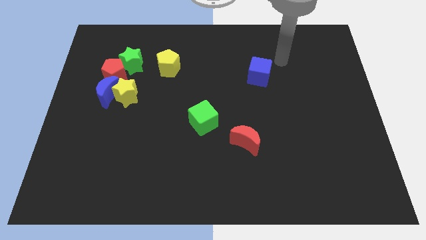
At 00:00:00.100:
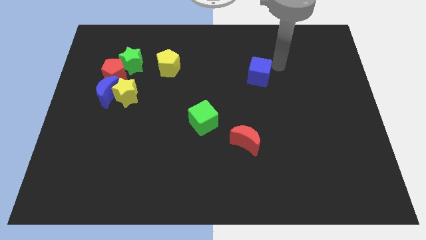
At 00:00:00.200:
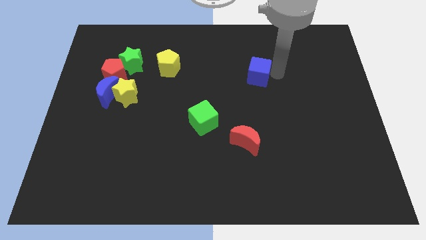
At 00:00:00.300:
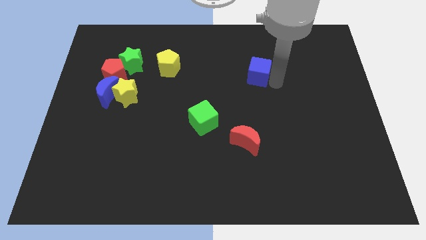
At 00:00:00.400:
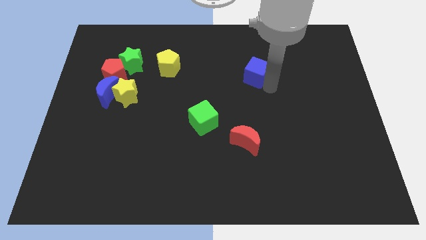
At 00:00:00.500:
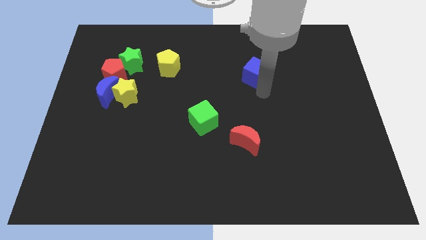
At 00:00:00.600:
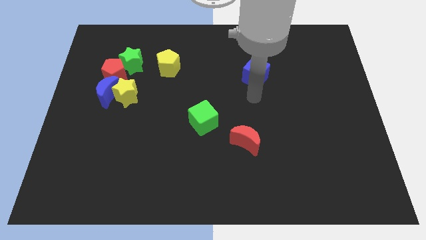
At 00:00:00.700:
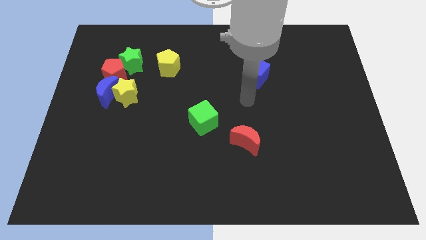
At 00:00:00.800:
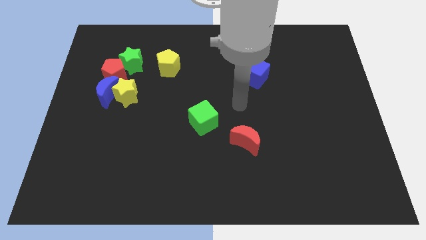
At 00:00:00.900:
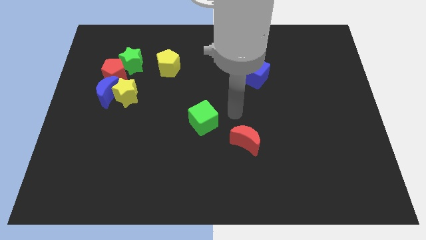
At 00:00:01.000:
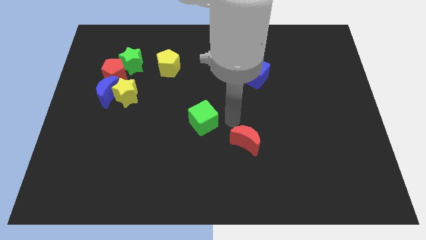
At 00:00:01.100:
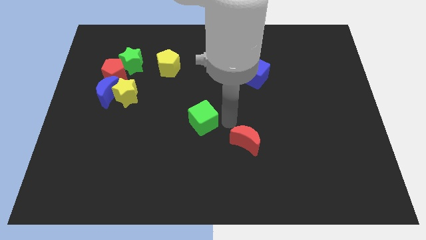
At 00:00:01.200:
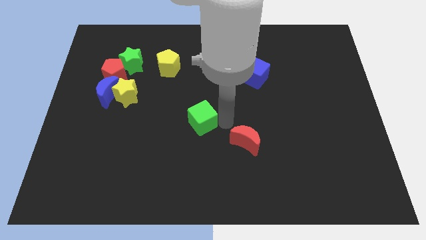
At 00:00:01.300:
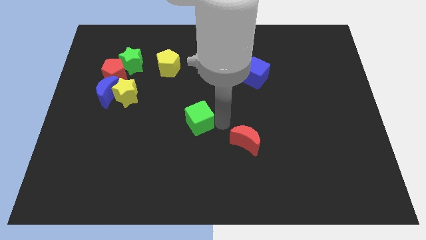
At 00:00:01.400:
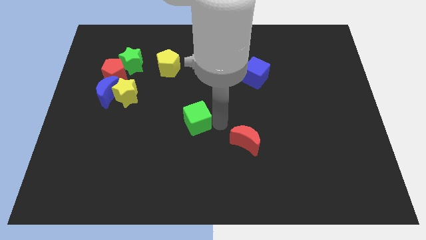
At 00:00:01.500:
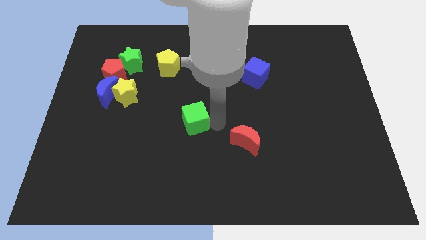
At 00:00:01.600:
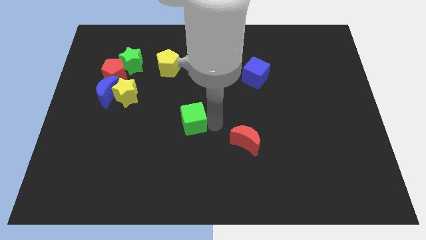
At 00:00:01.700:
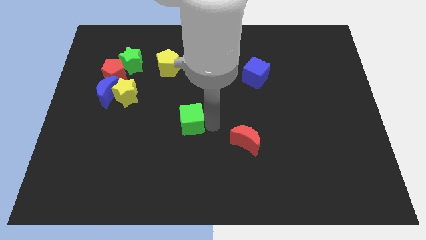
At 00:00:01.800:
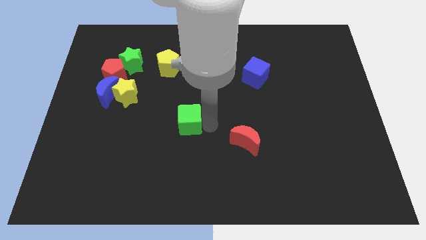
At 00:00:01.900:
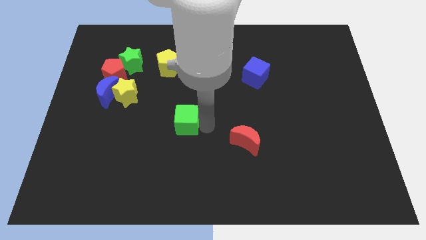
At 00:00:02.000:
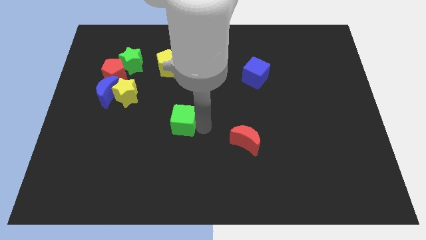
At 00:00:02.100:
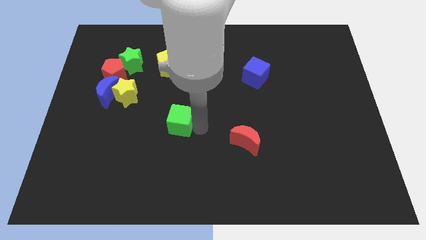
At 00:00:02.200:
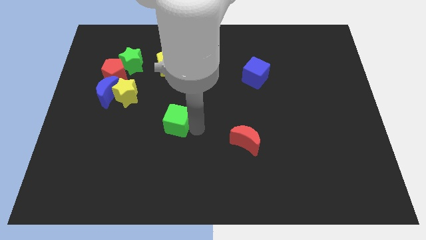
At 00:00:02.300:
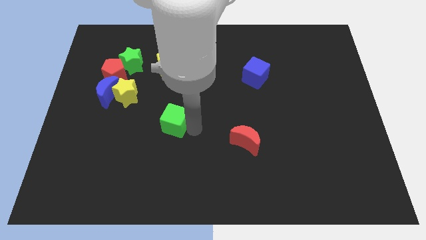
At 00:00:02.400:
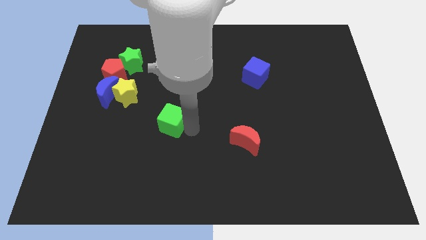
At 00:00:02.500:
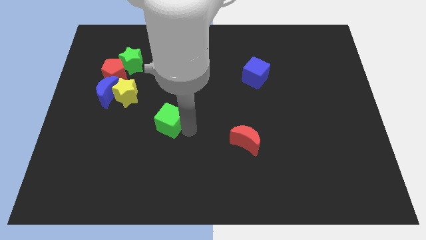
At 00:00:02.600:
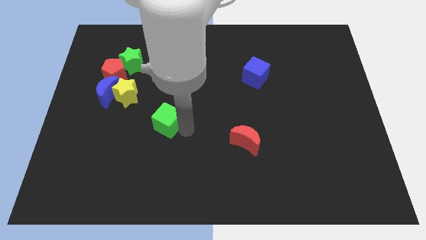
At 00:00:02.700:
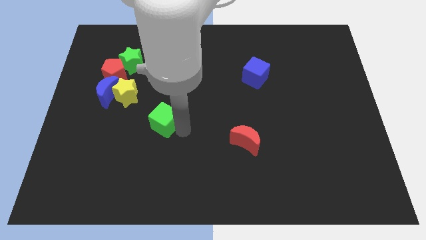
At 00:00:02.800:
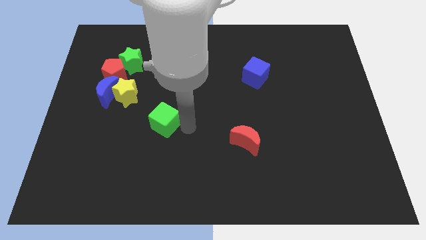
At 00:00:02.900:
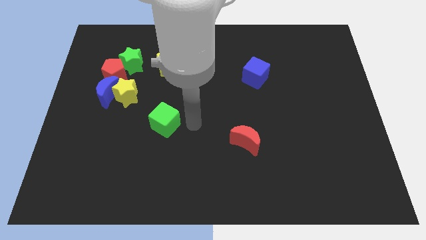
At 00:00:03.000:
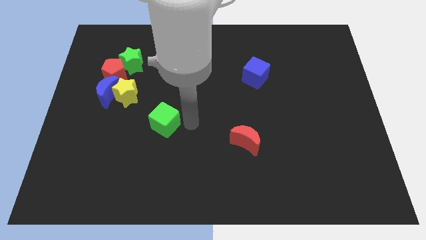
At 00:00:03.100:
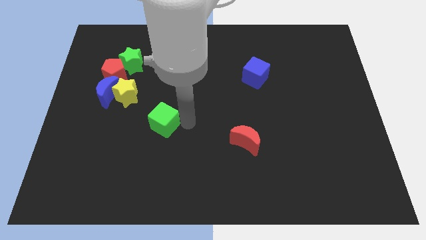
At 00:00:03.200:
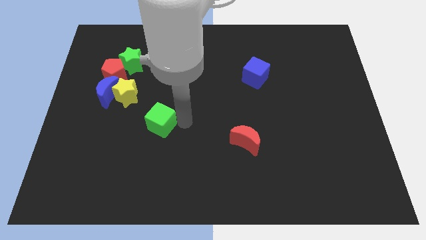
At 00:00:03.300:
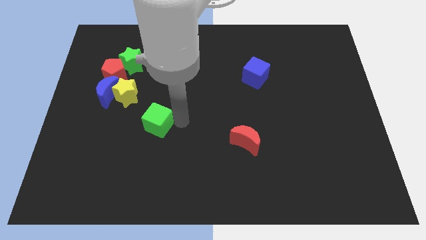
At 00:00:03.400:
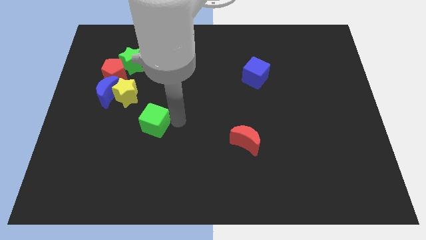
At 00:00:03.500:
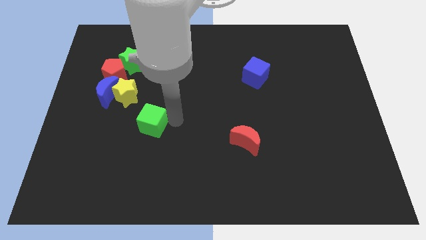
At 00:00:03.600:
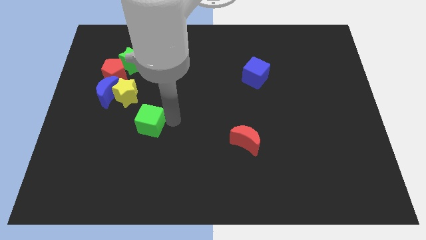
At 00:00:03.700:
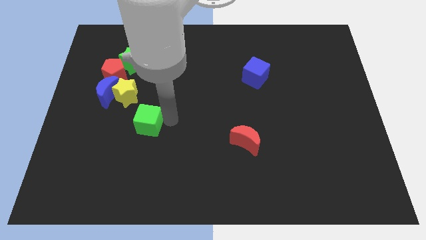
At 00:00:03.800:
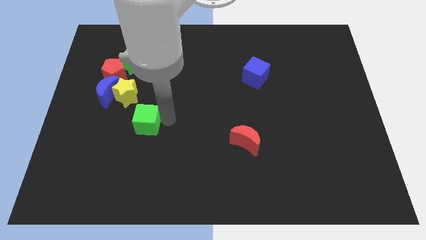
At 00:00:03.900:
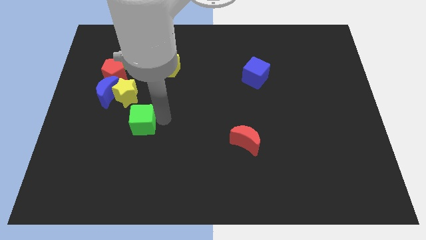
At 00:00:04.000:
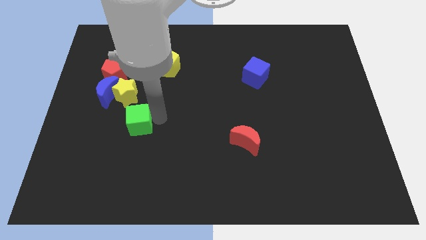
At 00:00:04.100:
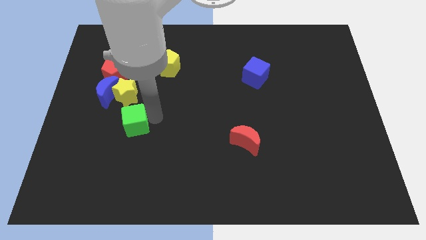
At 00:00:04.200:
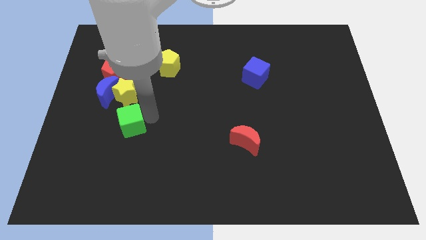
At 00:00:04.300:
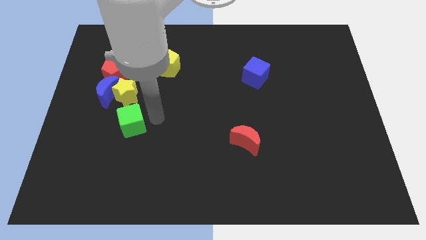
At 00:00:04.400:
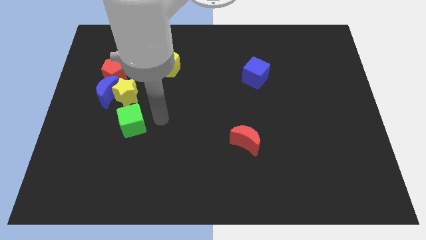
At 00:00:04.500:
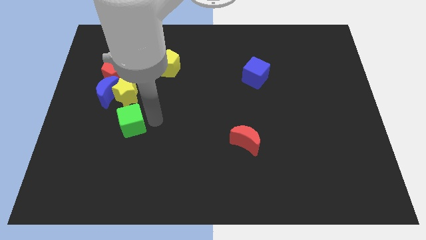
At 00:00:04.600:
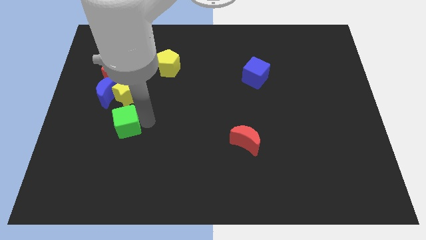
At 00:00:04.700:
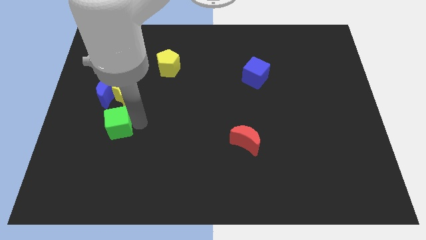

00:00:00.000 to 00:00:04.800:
slide the green cube to the bottom of the blue moon

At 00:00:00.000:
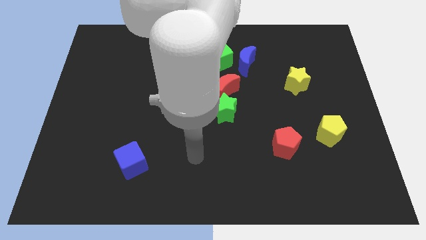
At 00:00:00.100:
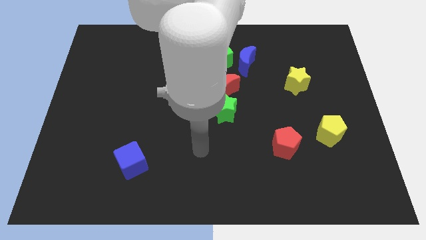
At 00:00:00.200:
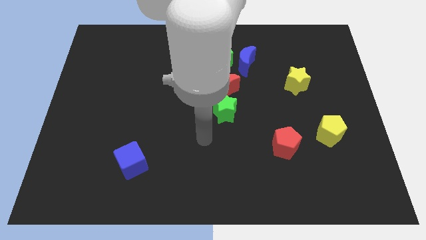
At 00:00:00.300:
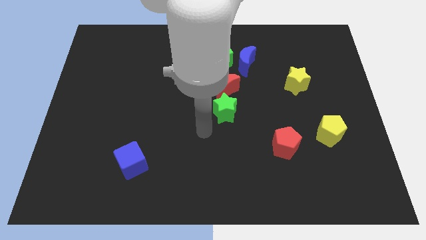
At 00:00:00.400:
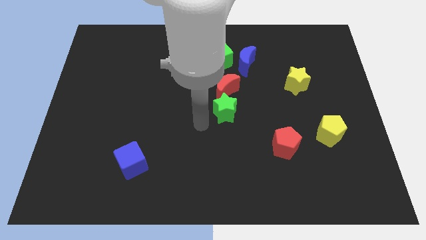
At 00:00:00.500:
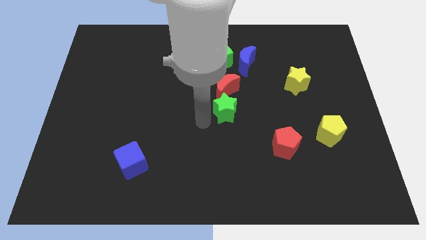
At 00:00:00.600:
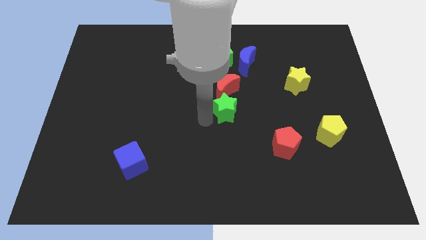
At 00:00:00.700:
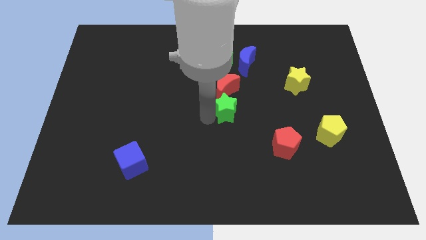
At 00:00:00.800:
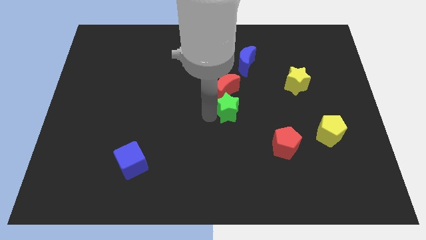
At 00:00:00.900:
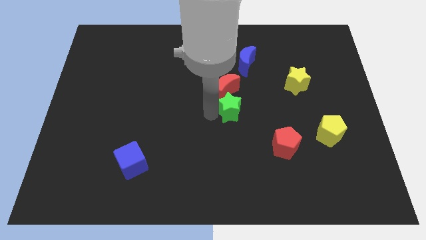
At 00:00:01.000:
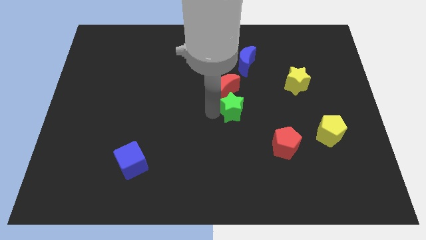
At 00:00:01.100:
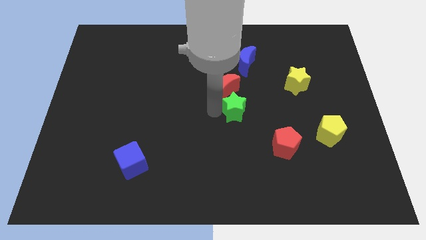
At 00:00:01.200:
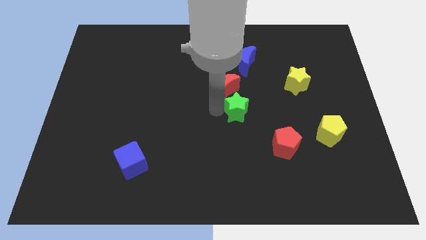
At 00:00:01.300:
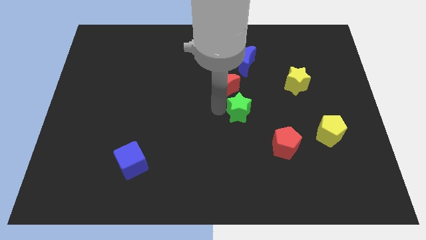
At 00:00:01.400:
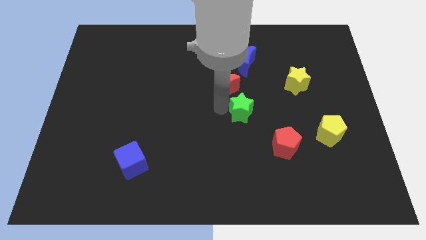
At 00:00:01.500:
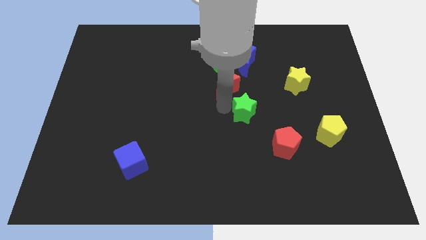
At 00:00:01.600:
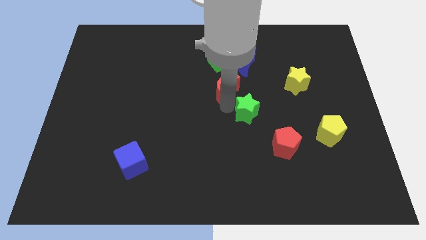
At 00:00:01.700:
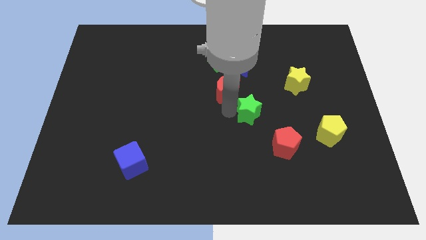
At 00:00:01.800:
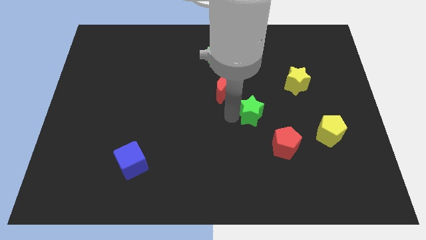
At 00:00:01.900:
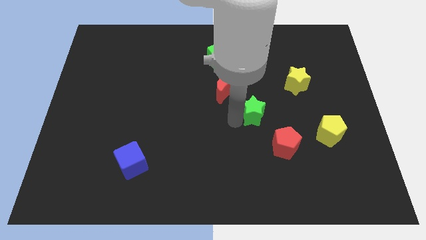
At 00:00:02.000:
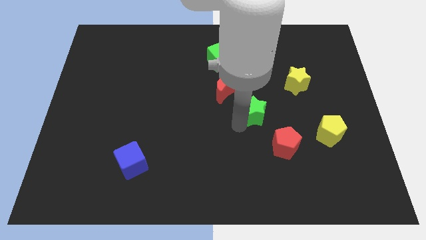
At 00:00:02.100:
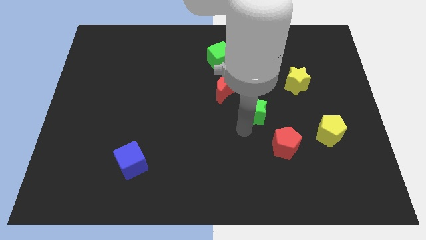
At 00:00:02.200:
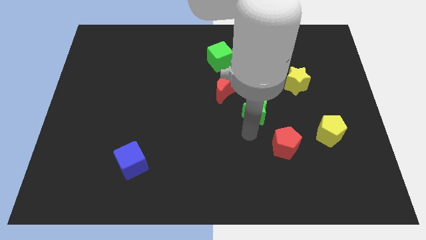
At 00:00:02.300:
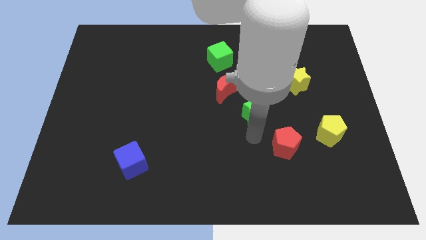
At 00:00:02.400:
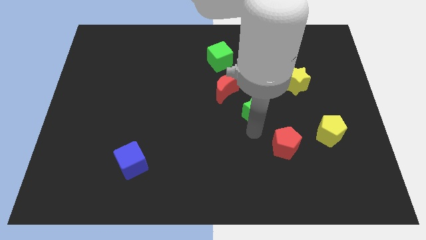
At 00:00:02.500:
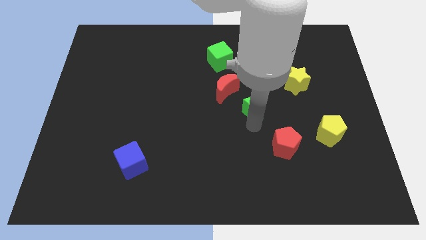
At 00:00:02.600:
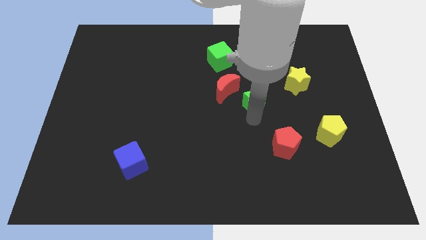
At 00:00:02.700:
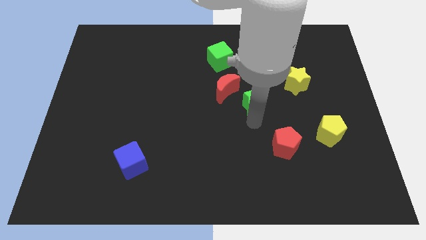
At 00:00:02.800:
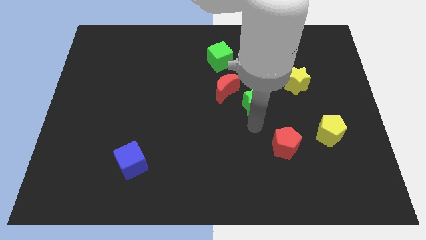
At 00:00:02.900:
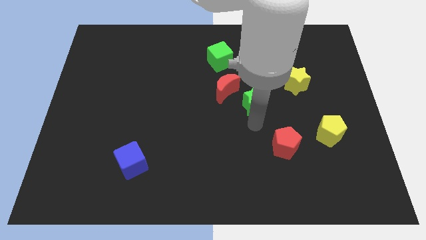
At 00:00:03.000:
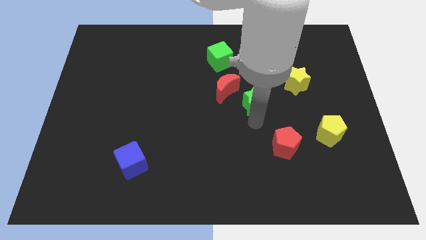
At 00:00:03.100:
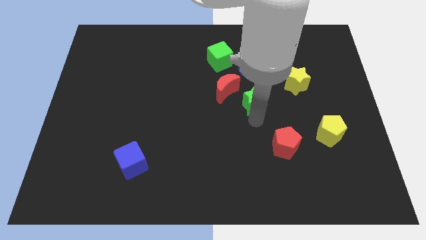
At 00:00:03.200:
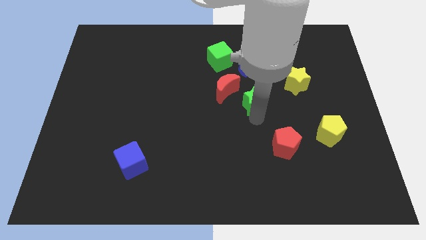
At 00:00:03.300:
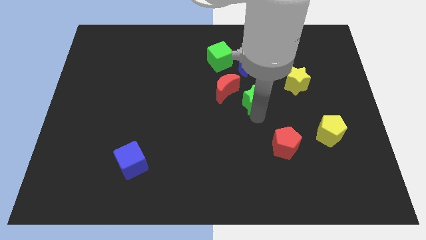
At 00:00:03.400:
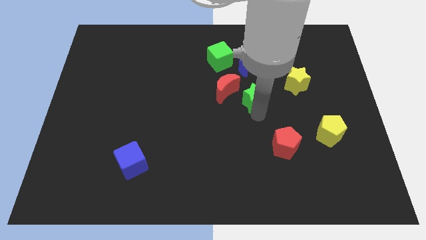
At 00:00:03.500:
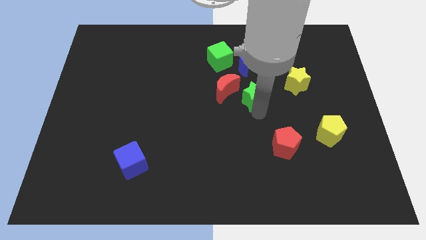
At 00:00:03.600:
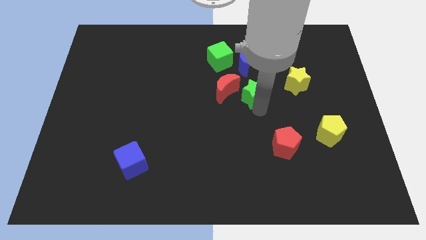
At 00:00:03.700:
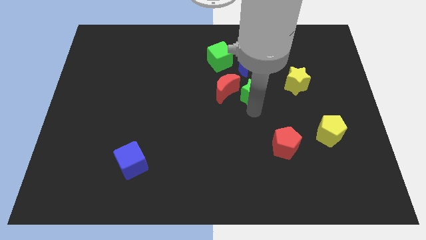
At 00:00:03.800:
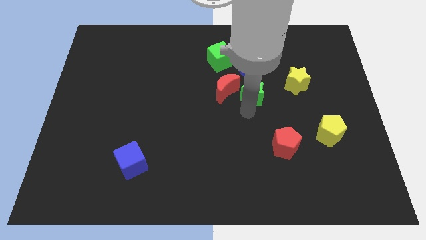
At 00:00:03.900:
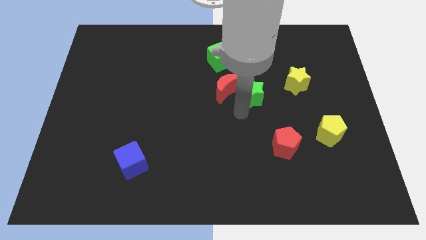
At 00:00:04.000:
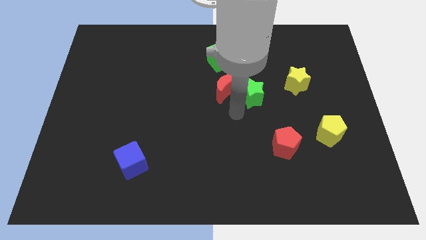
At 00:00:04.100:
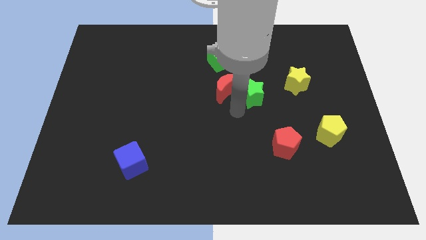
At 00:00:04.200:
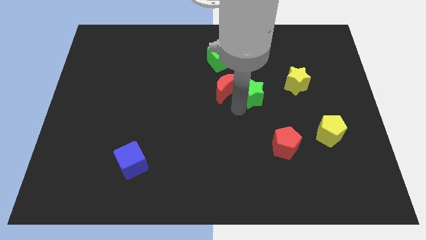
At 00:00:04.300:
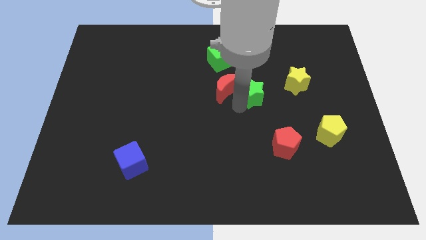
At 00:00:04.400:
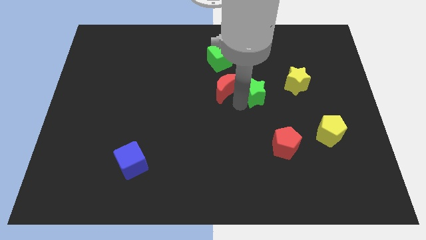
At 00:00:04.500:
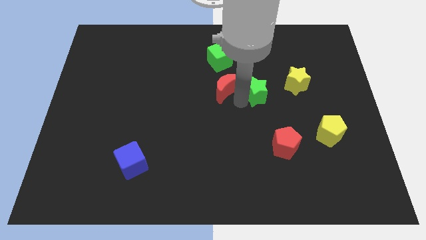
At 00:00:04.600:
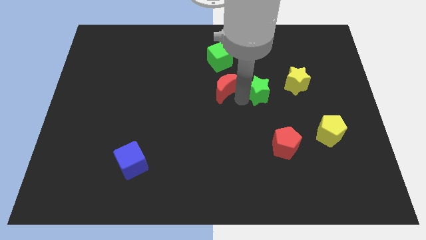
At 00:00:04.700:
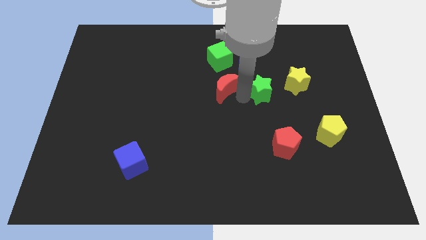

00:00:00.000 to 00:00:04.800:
push the green star diagonally down and to the right of the blue moon
